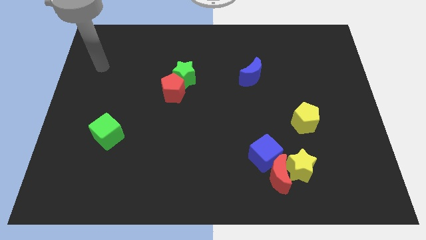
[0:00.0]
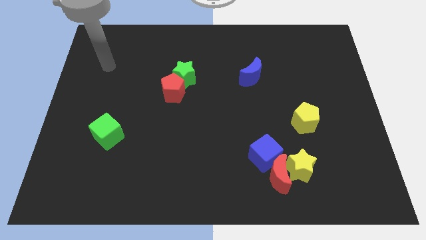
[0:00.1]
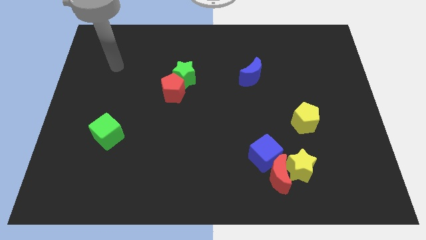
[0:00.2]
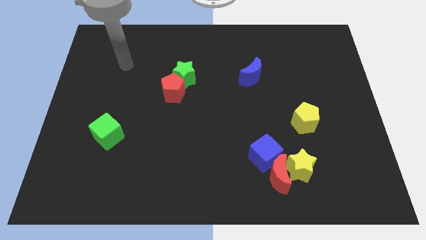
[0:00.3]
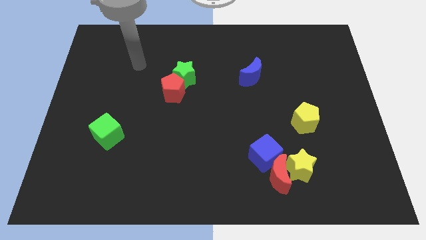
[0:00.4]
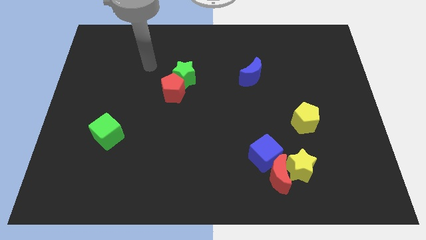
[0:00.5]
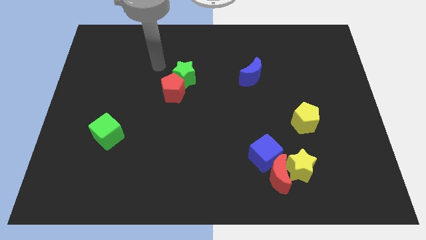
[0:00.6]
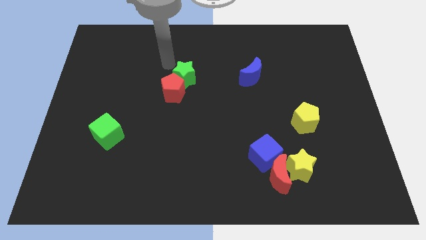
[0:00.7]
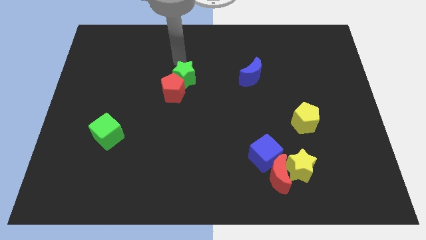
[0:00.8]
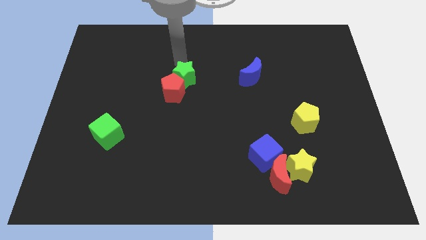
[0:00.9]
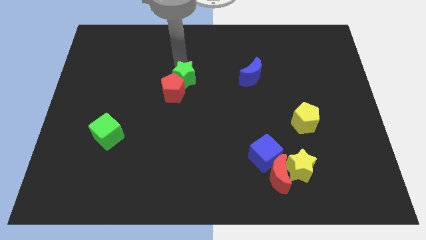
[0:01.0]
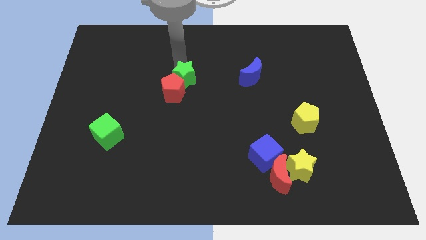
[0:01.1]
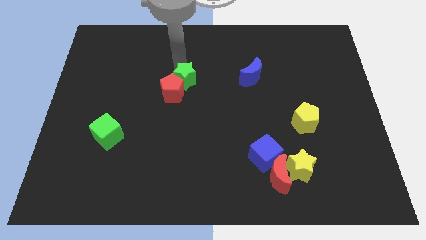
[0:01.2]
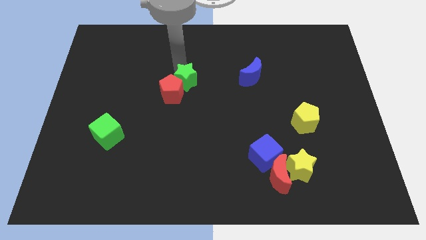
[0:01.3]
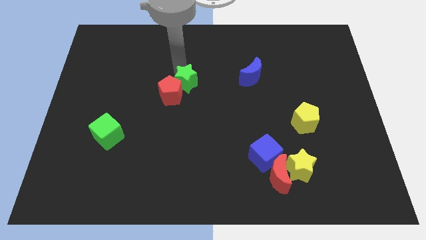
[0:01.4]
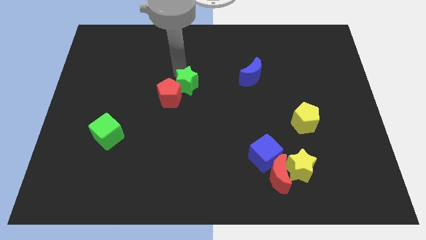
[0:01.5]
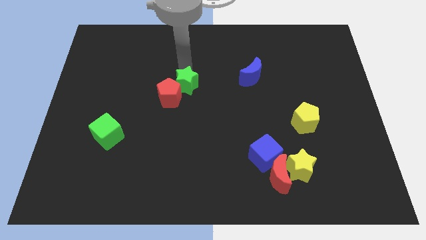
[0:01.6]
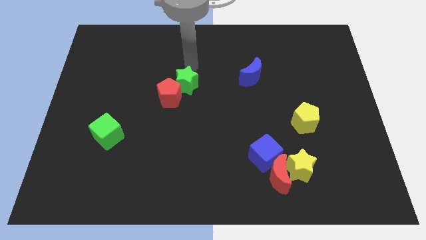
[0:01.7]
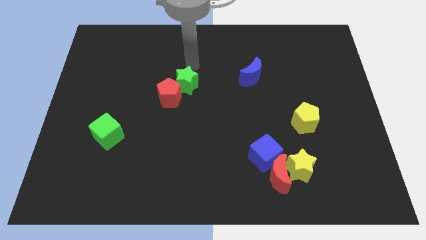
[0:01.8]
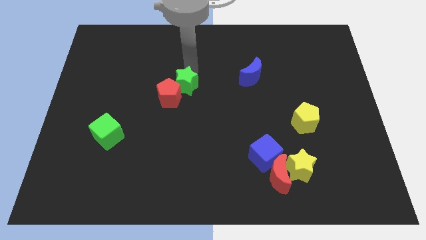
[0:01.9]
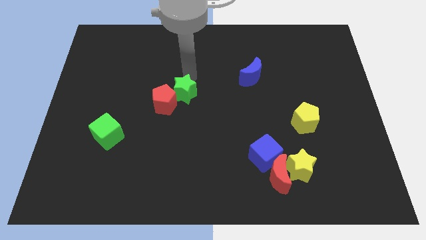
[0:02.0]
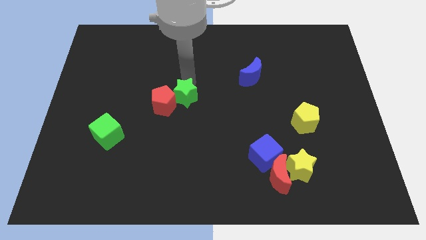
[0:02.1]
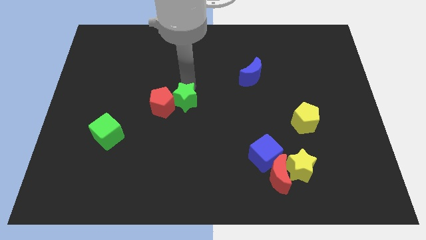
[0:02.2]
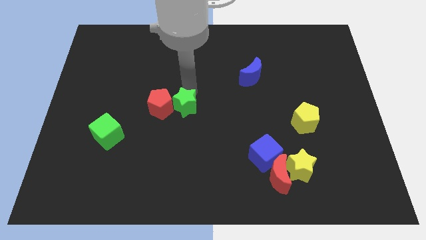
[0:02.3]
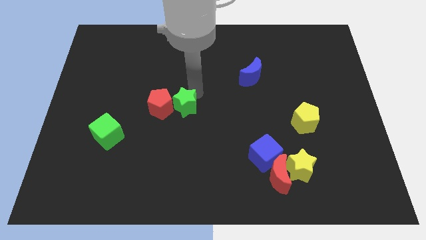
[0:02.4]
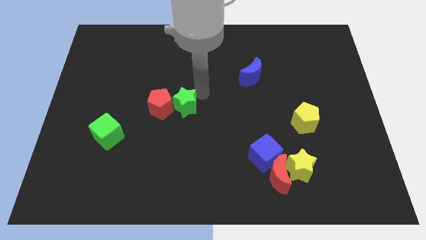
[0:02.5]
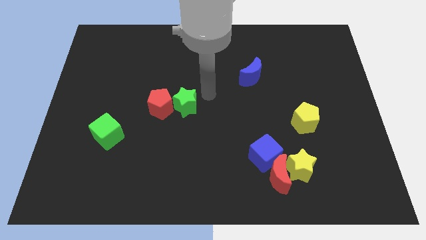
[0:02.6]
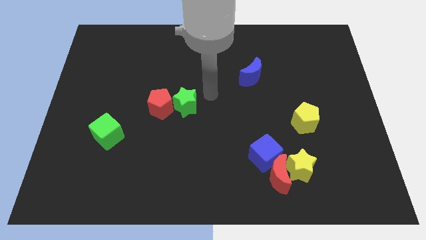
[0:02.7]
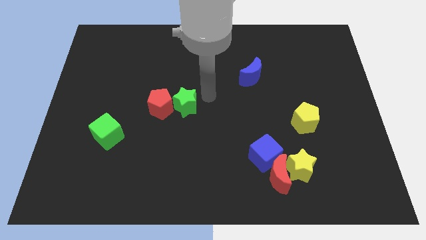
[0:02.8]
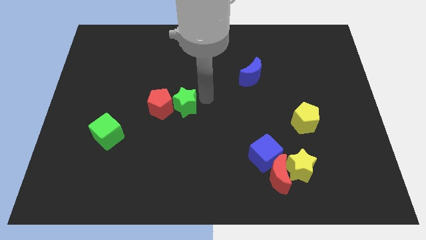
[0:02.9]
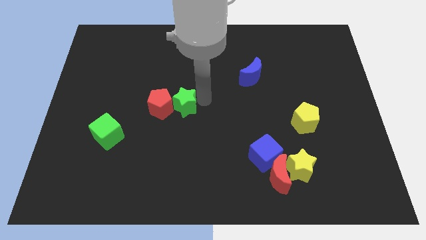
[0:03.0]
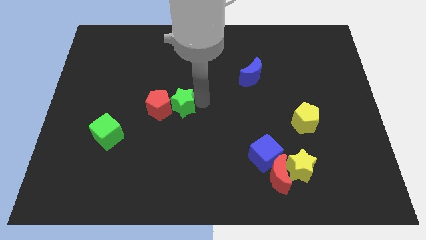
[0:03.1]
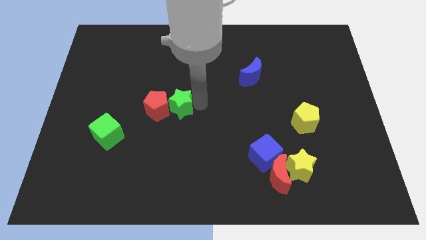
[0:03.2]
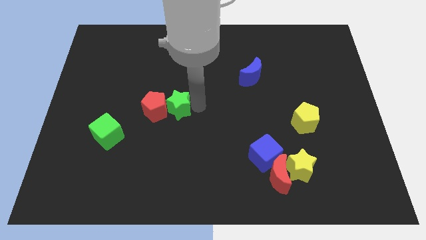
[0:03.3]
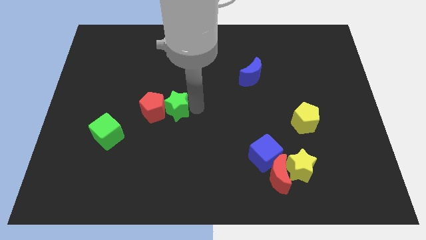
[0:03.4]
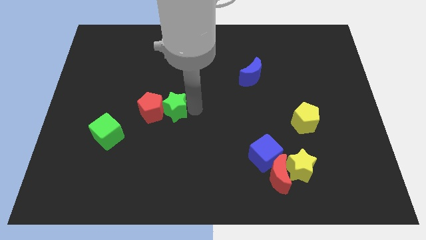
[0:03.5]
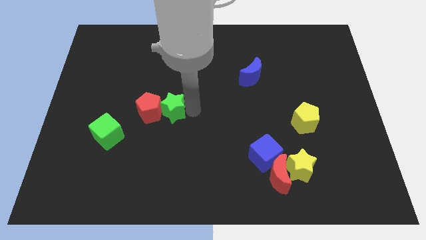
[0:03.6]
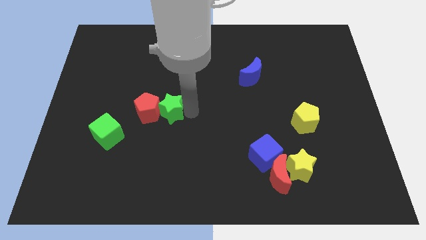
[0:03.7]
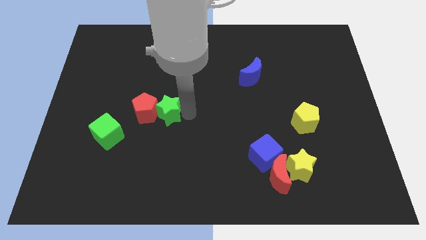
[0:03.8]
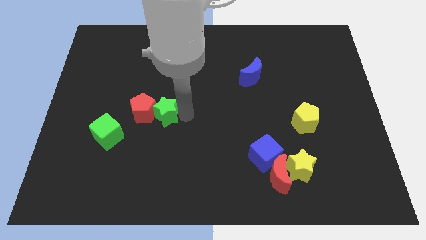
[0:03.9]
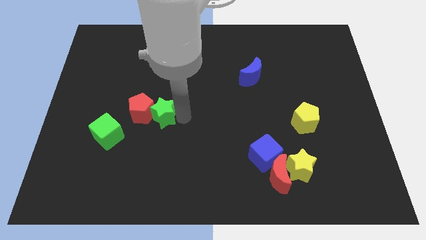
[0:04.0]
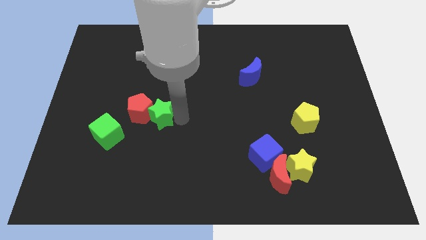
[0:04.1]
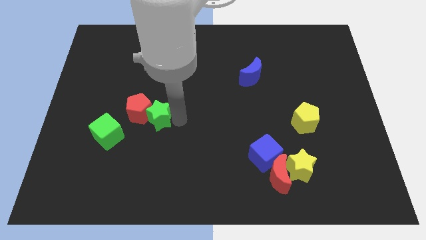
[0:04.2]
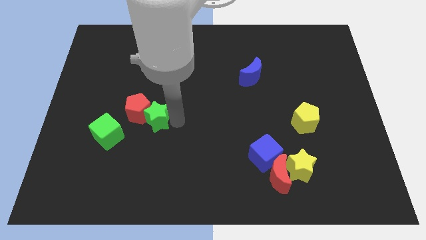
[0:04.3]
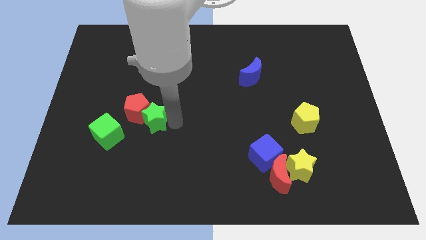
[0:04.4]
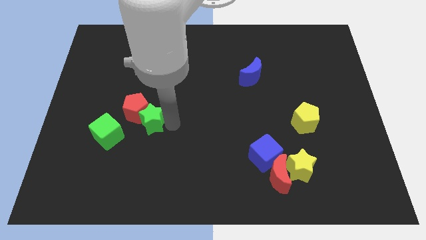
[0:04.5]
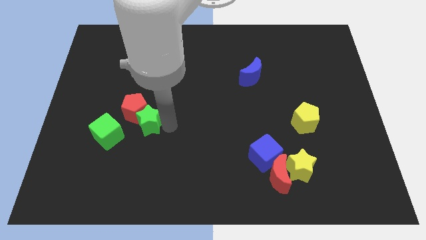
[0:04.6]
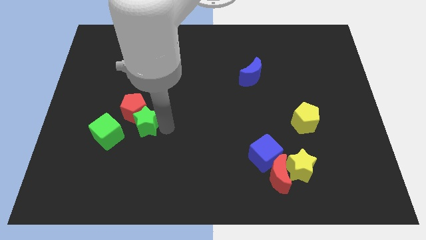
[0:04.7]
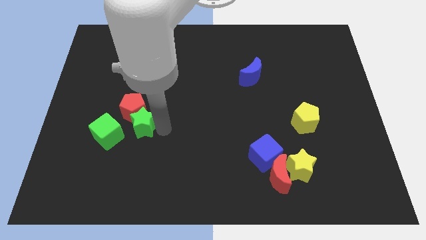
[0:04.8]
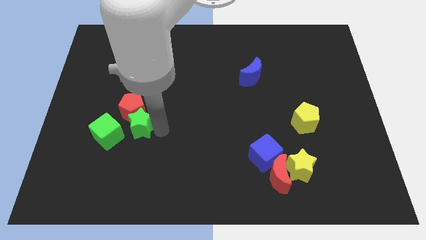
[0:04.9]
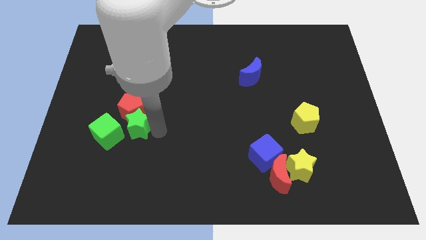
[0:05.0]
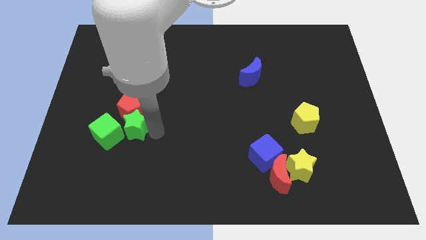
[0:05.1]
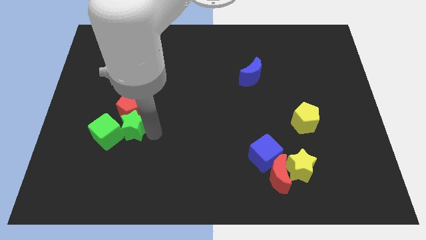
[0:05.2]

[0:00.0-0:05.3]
move the green star close to the green cube

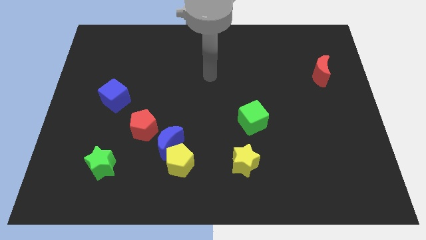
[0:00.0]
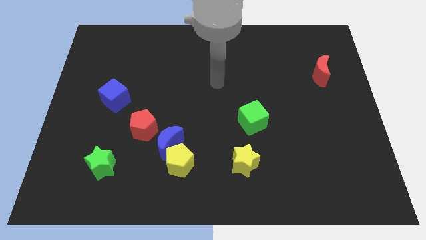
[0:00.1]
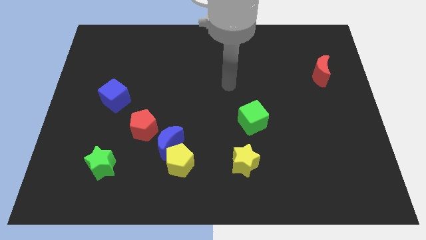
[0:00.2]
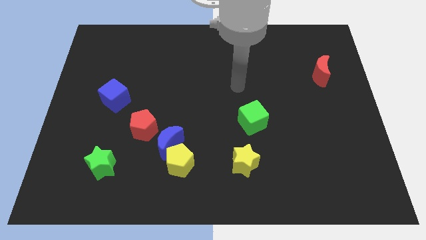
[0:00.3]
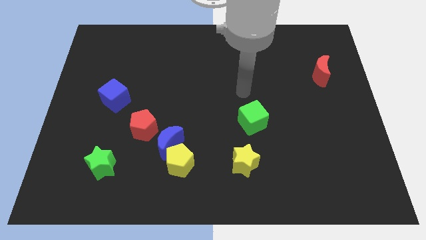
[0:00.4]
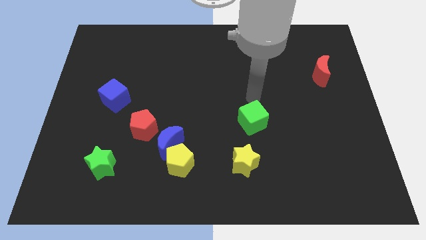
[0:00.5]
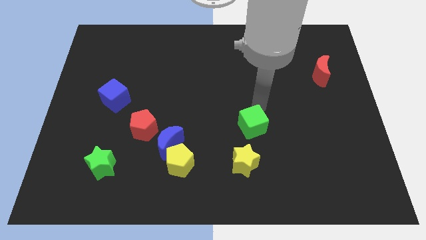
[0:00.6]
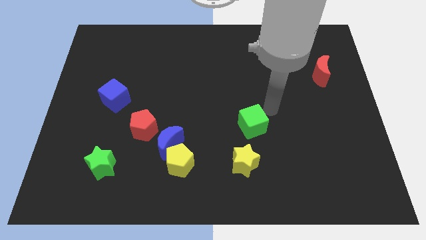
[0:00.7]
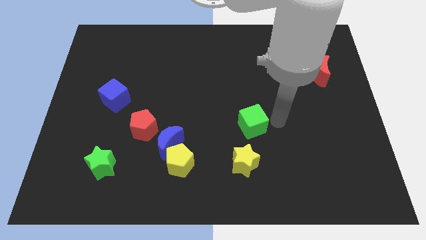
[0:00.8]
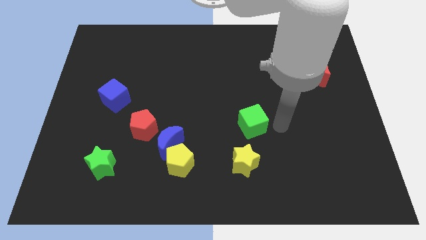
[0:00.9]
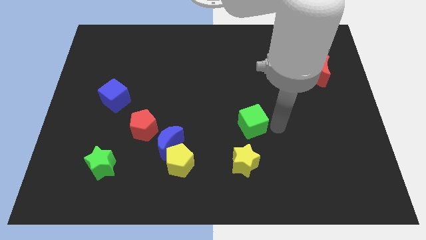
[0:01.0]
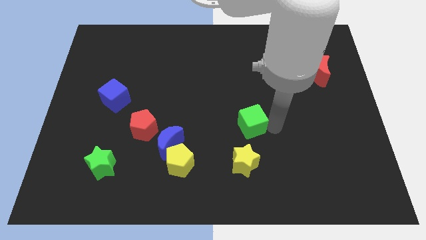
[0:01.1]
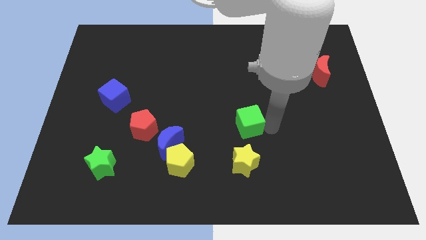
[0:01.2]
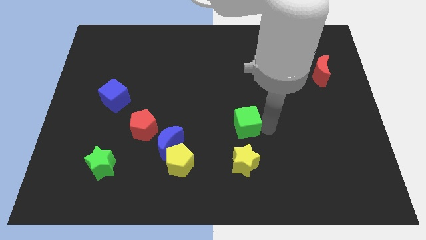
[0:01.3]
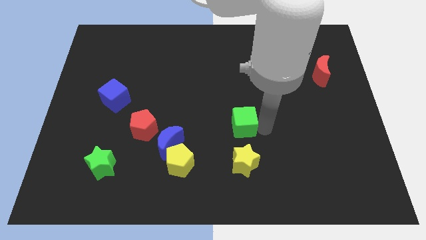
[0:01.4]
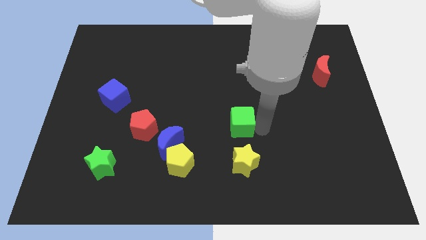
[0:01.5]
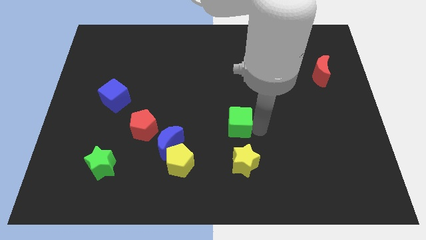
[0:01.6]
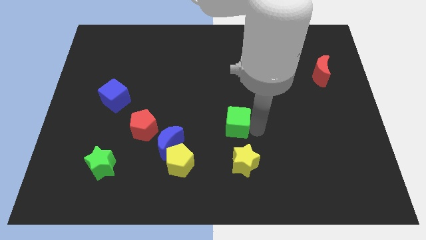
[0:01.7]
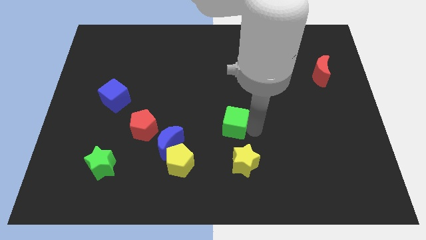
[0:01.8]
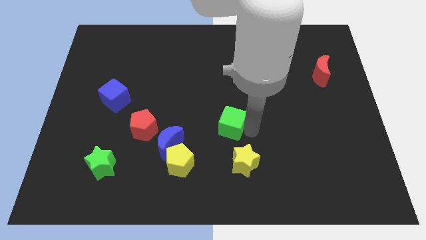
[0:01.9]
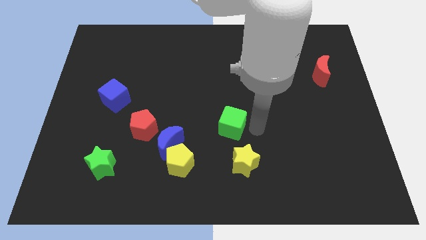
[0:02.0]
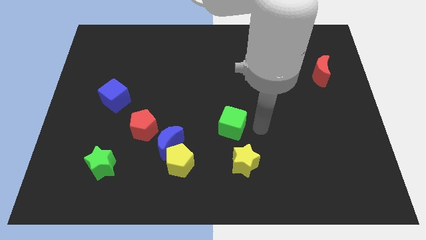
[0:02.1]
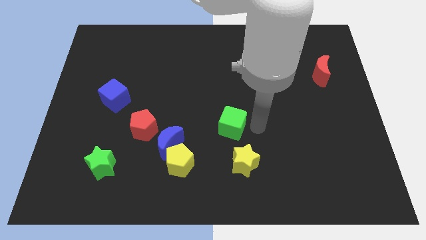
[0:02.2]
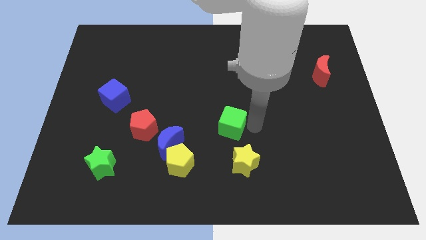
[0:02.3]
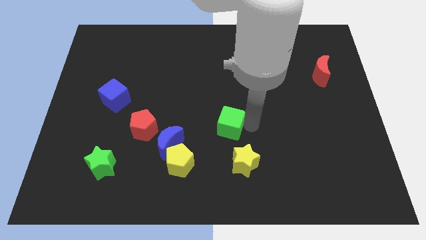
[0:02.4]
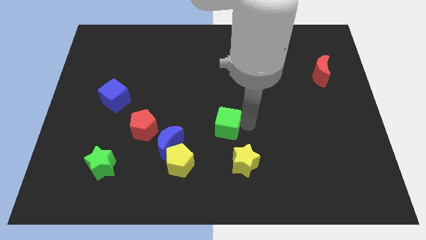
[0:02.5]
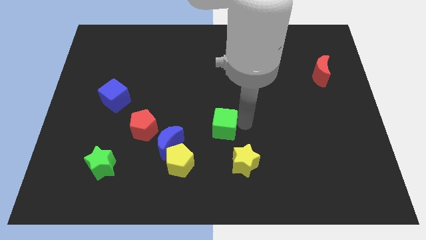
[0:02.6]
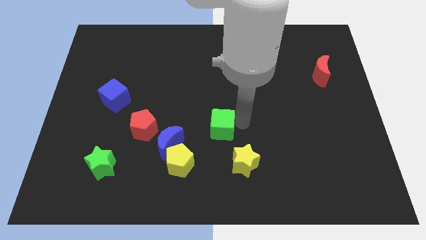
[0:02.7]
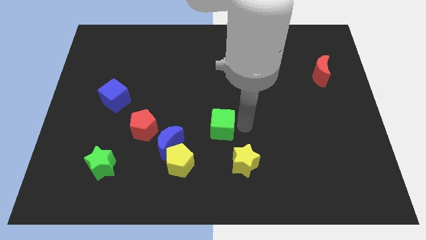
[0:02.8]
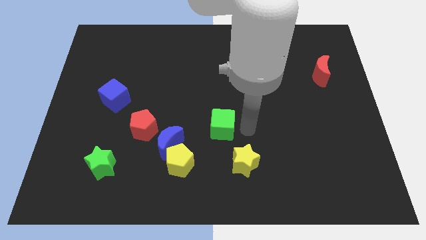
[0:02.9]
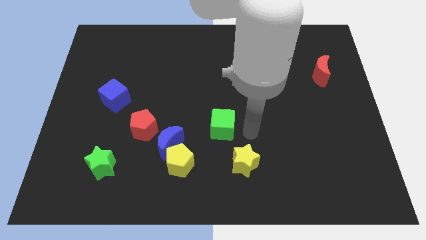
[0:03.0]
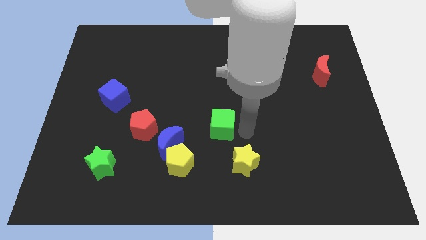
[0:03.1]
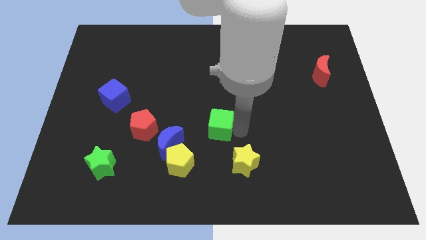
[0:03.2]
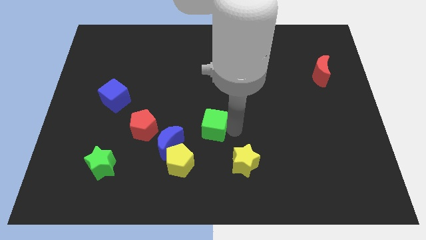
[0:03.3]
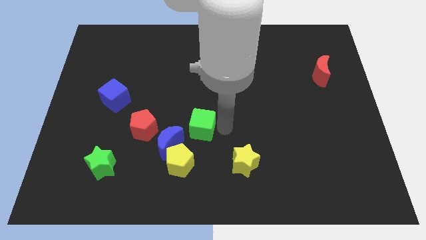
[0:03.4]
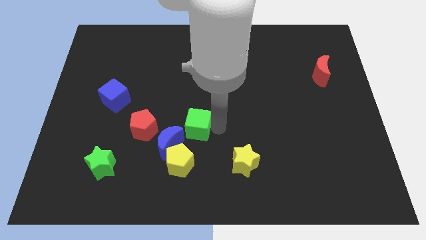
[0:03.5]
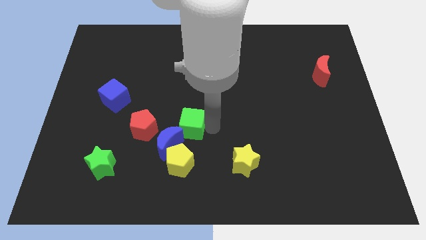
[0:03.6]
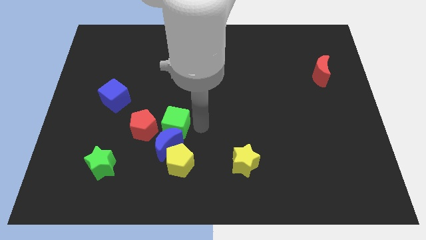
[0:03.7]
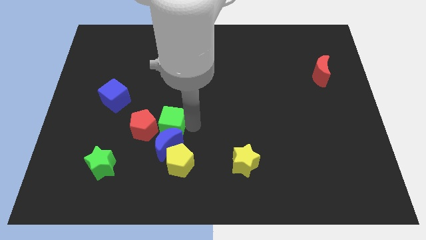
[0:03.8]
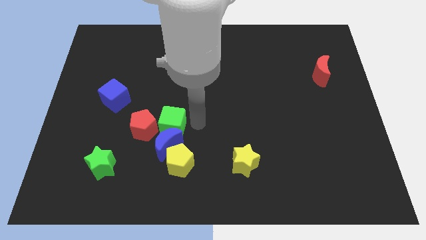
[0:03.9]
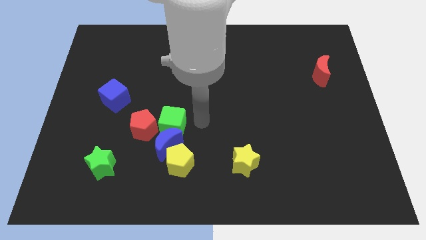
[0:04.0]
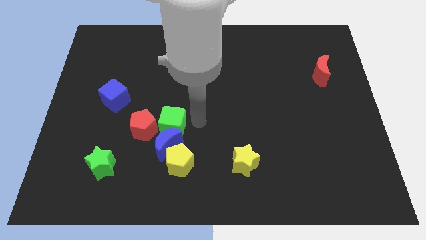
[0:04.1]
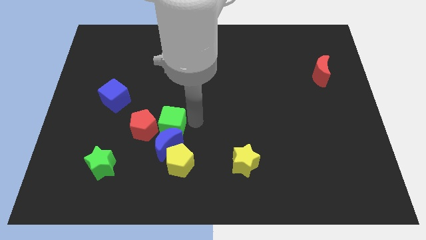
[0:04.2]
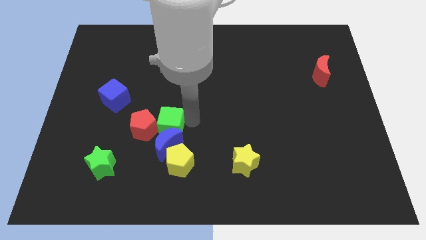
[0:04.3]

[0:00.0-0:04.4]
put the green cube next to the red pentagon
